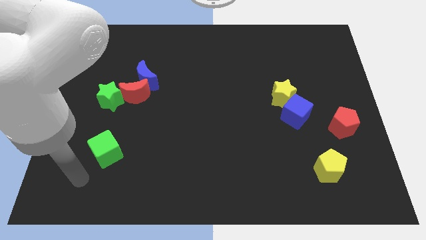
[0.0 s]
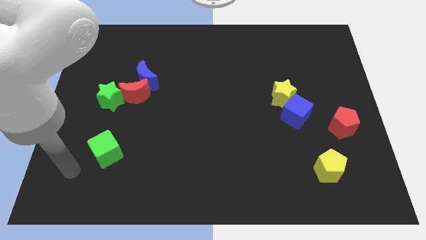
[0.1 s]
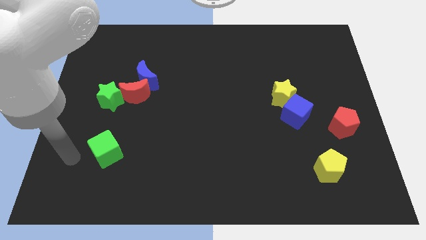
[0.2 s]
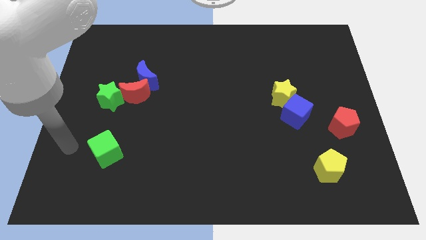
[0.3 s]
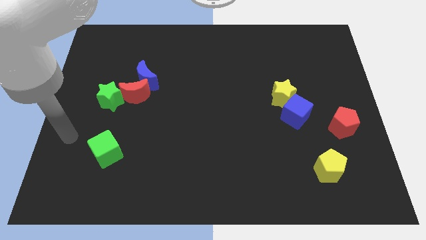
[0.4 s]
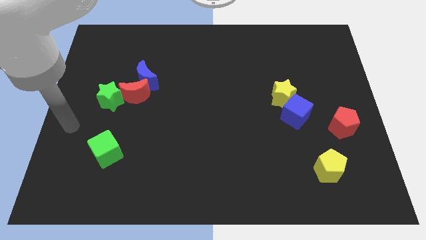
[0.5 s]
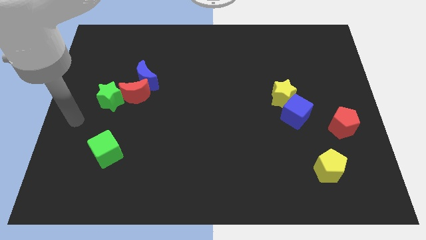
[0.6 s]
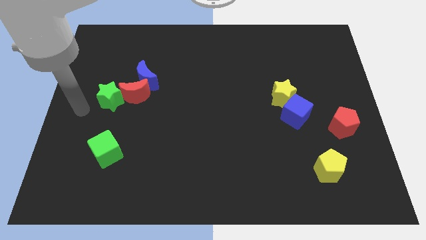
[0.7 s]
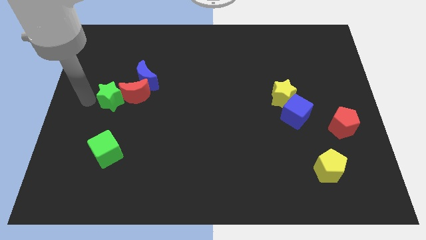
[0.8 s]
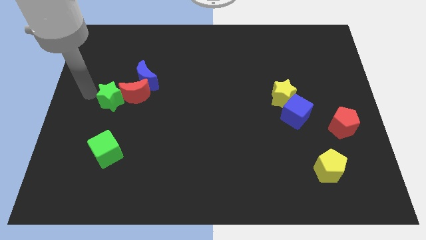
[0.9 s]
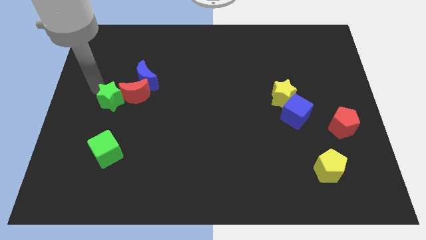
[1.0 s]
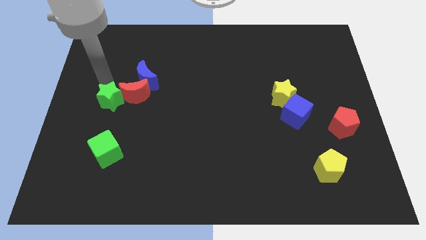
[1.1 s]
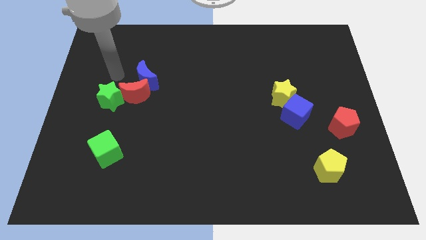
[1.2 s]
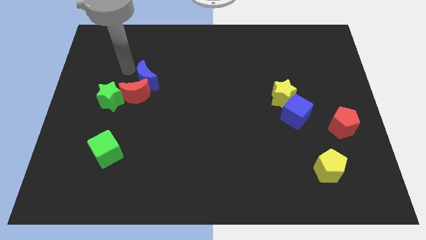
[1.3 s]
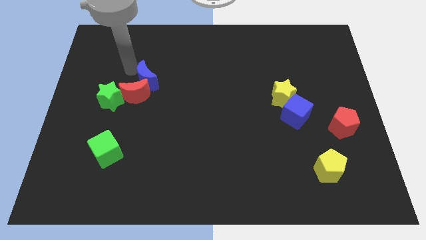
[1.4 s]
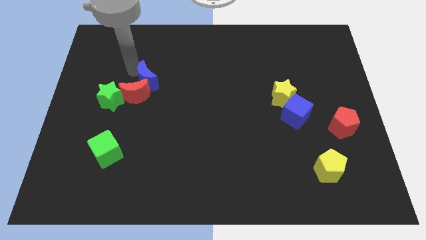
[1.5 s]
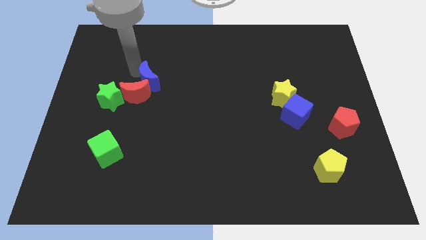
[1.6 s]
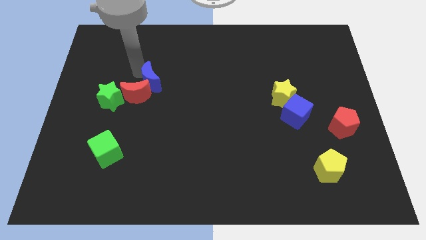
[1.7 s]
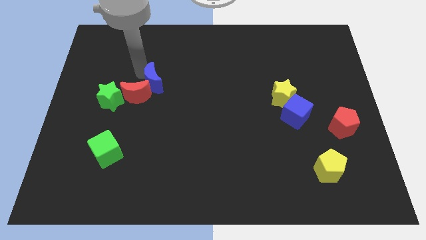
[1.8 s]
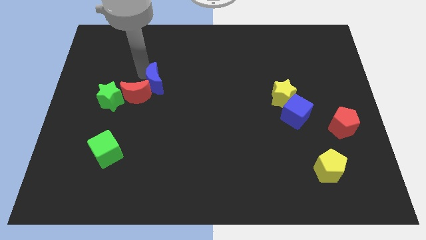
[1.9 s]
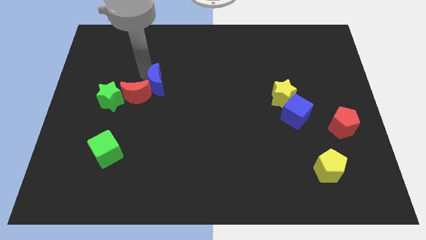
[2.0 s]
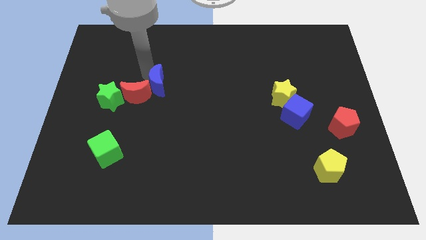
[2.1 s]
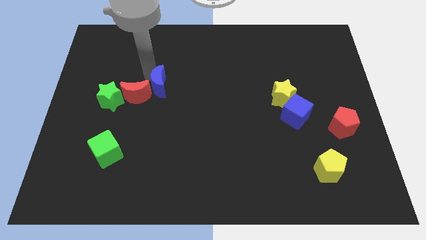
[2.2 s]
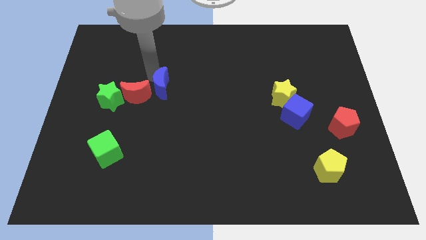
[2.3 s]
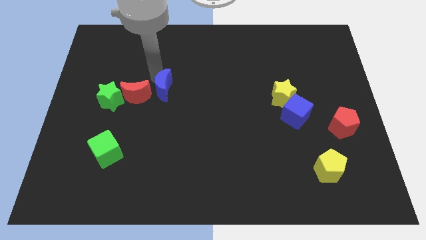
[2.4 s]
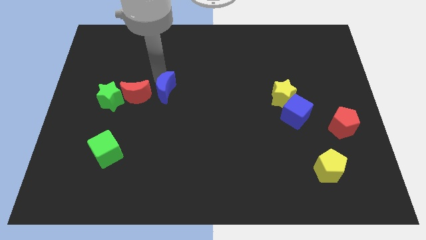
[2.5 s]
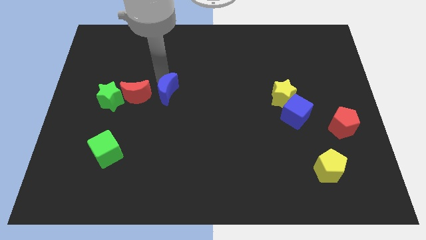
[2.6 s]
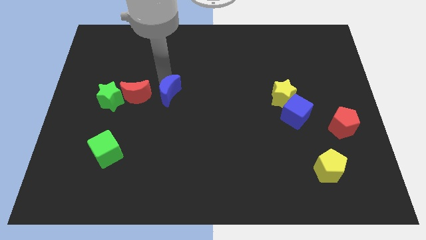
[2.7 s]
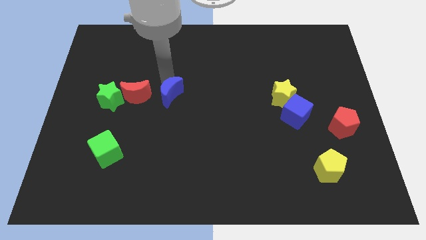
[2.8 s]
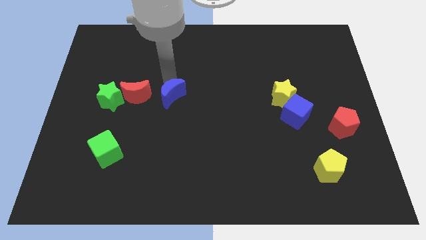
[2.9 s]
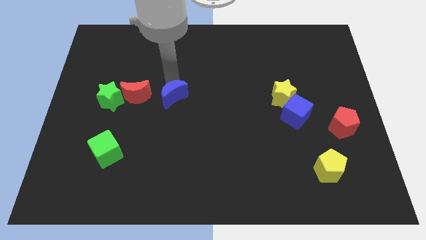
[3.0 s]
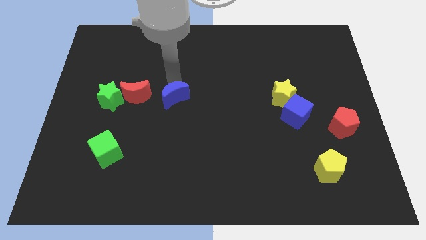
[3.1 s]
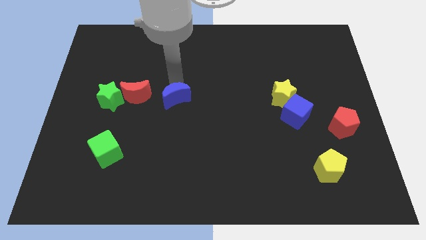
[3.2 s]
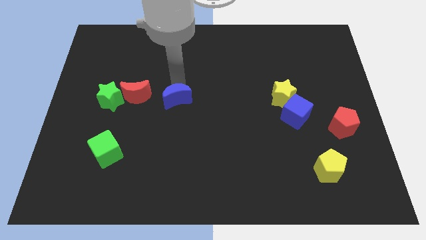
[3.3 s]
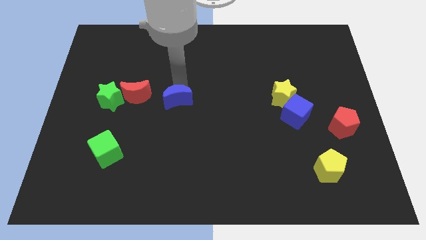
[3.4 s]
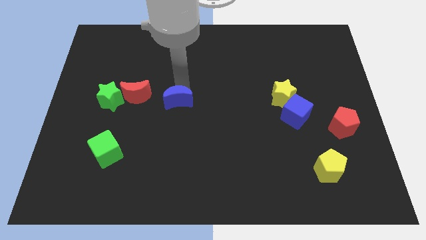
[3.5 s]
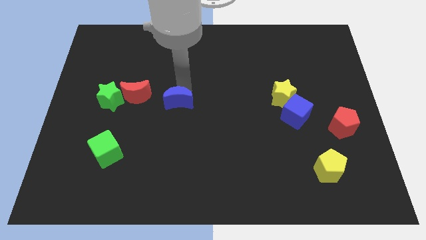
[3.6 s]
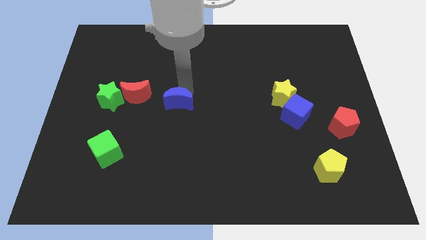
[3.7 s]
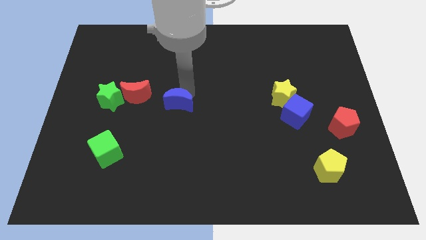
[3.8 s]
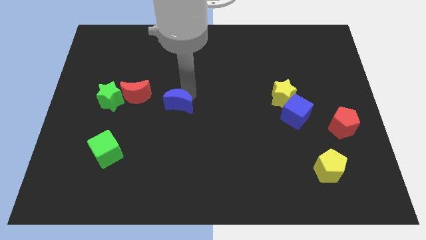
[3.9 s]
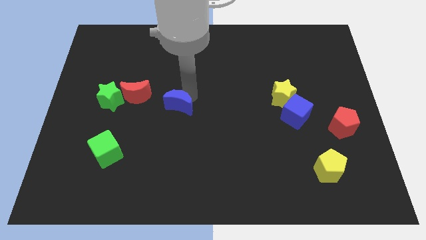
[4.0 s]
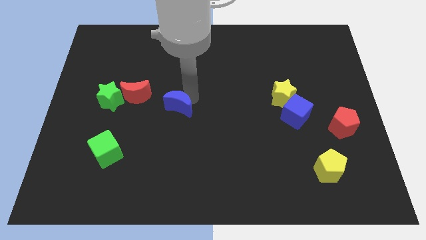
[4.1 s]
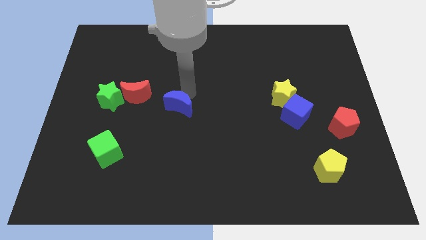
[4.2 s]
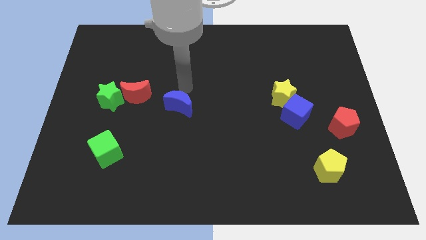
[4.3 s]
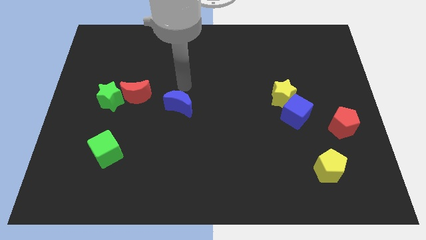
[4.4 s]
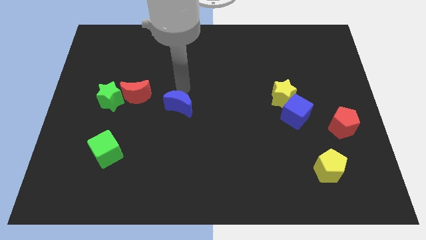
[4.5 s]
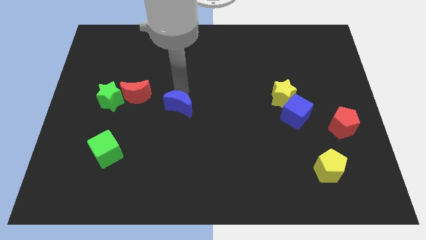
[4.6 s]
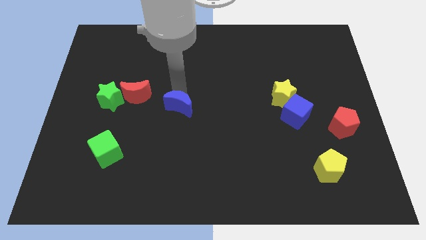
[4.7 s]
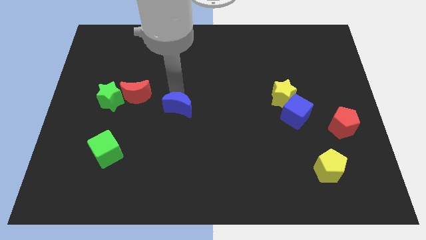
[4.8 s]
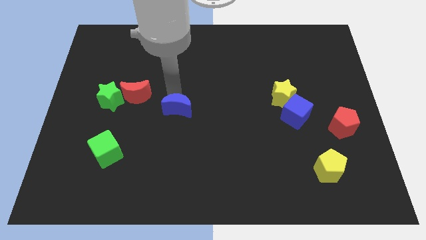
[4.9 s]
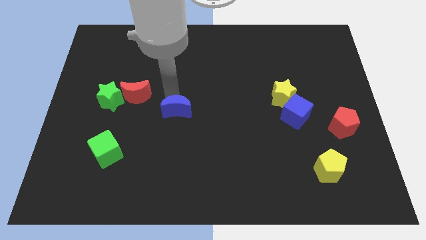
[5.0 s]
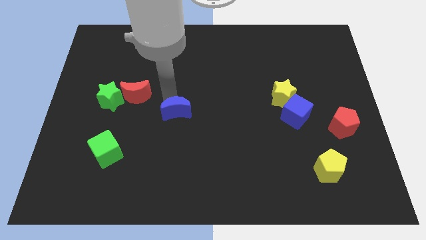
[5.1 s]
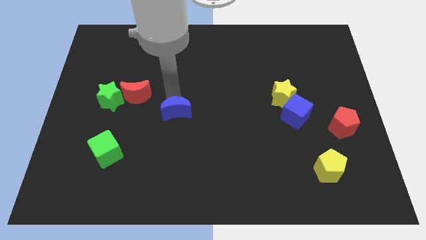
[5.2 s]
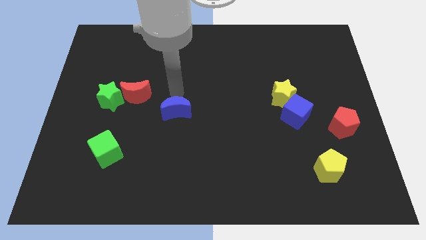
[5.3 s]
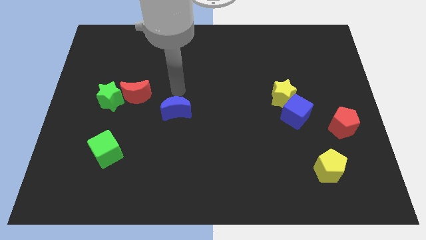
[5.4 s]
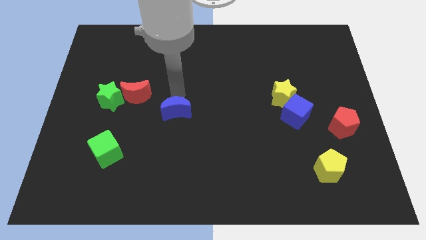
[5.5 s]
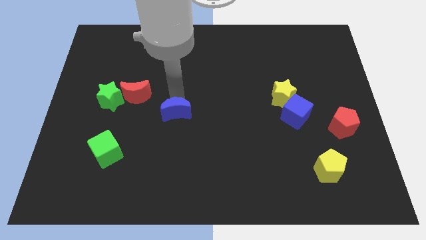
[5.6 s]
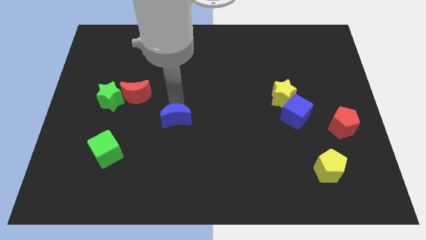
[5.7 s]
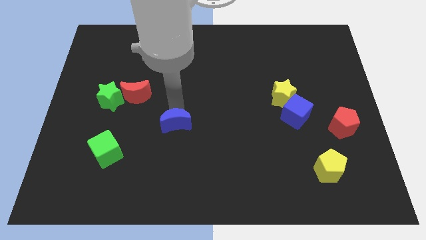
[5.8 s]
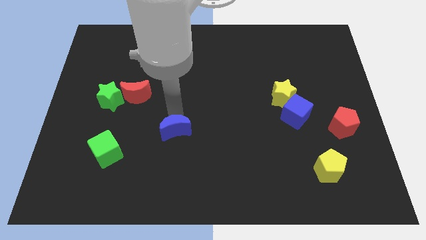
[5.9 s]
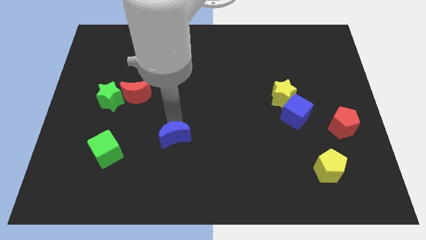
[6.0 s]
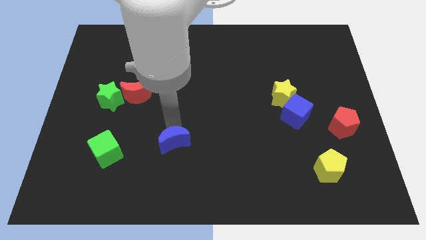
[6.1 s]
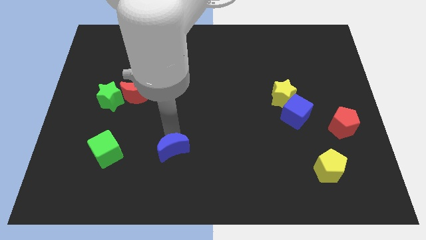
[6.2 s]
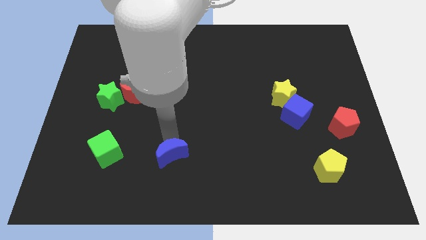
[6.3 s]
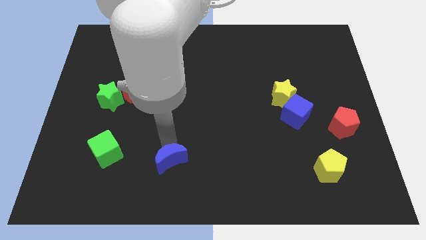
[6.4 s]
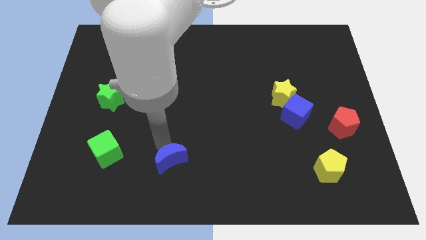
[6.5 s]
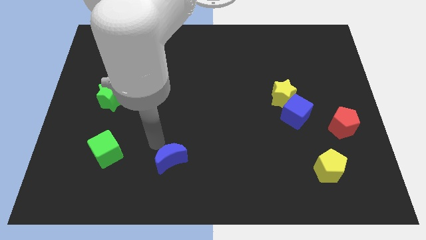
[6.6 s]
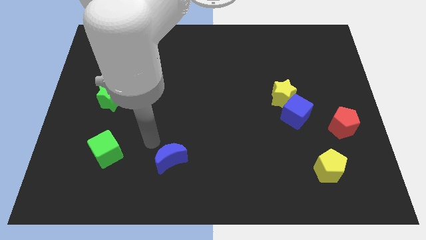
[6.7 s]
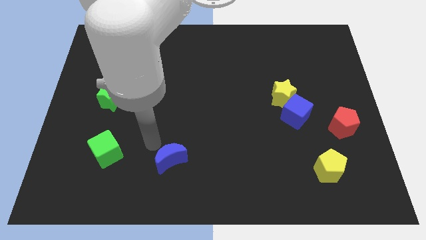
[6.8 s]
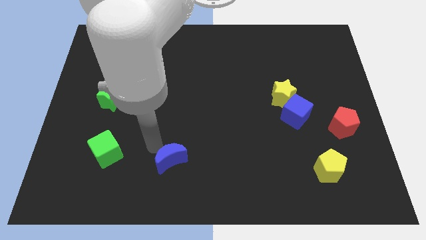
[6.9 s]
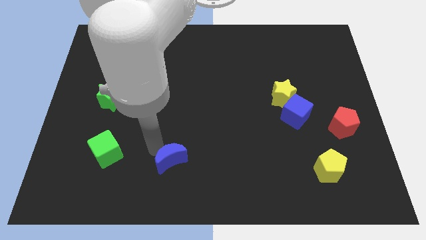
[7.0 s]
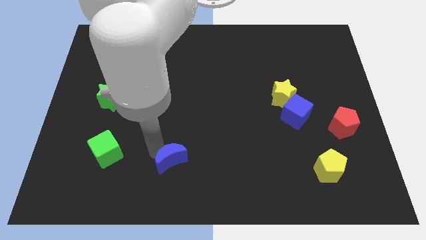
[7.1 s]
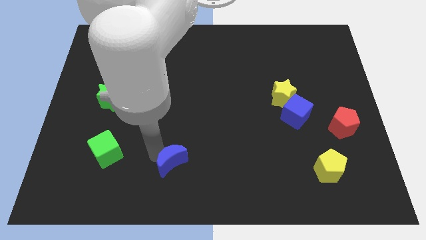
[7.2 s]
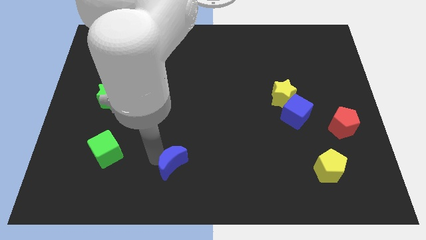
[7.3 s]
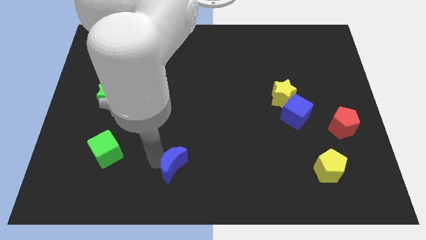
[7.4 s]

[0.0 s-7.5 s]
slide the blue moon to the bottom
